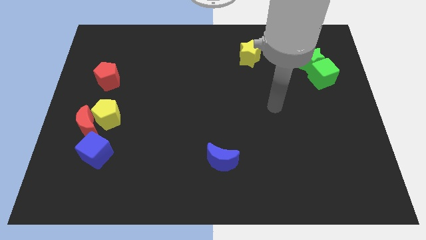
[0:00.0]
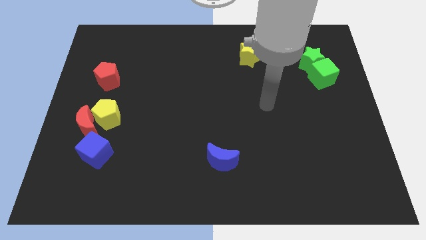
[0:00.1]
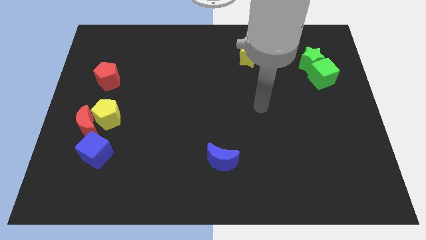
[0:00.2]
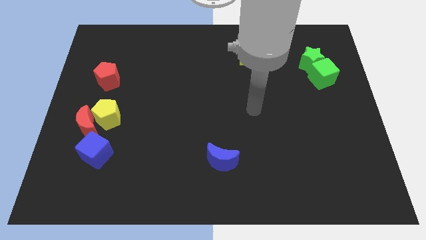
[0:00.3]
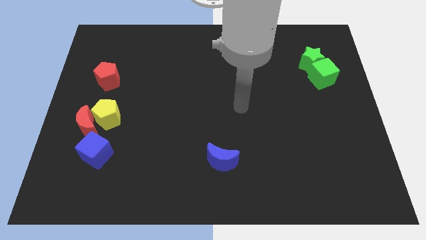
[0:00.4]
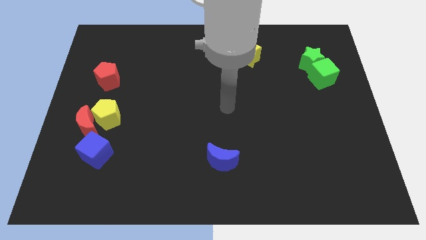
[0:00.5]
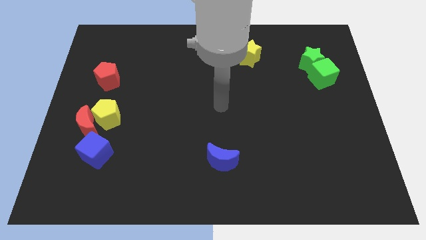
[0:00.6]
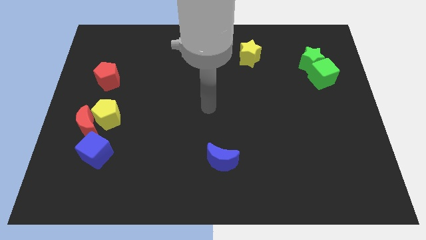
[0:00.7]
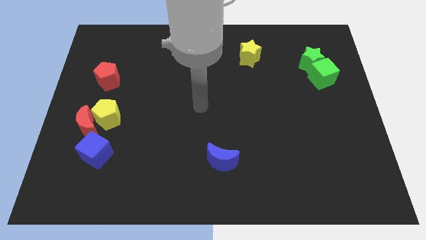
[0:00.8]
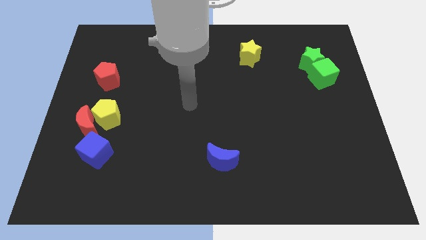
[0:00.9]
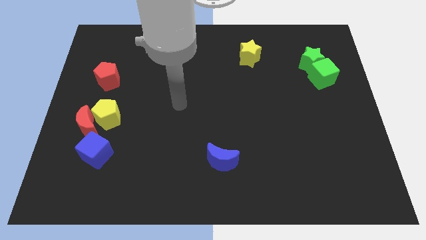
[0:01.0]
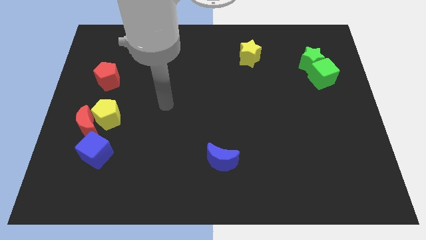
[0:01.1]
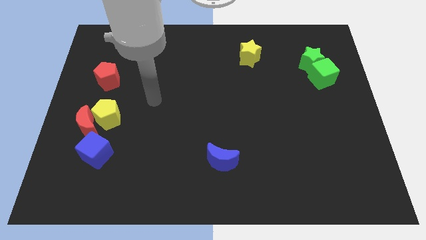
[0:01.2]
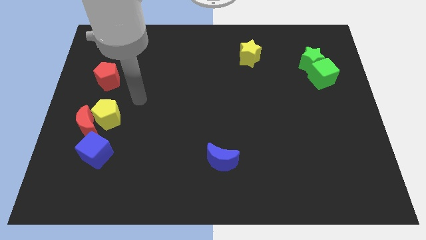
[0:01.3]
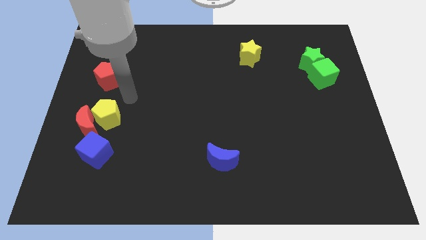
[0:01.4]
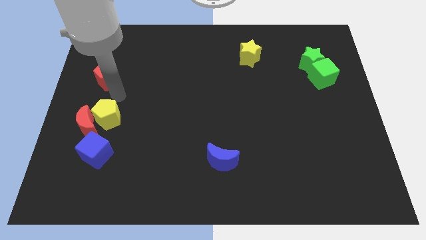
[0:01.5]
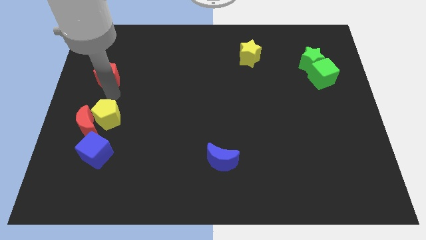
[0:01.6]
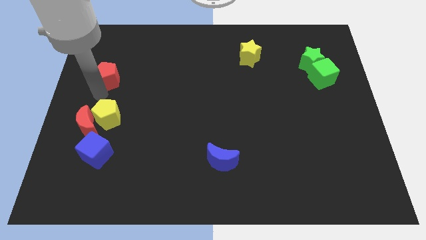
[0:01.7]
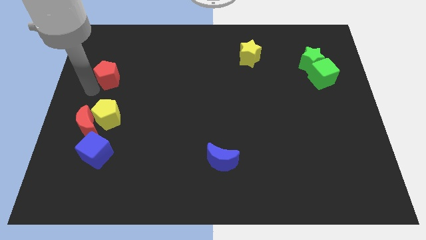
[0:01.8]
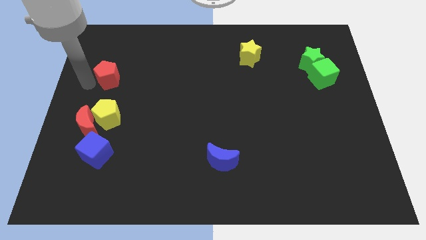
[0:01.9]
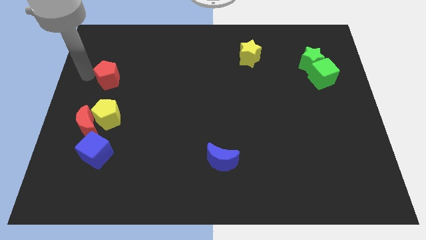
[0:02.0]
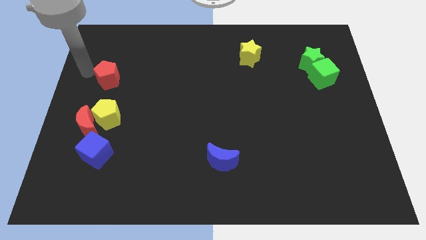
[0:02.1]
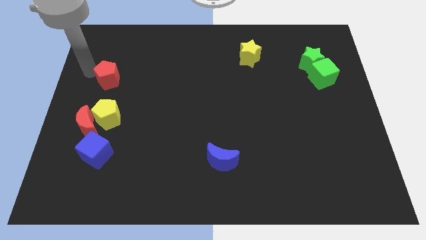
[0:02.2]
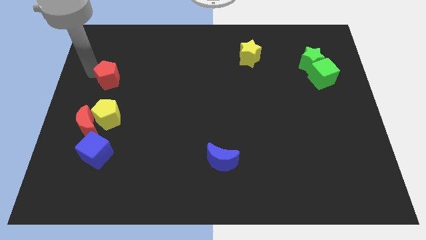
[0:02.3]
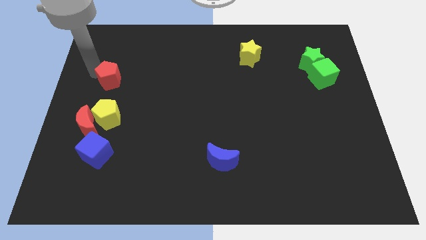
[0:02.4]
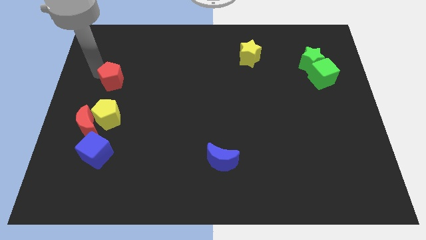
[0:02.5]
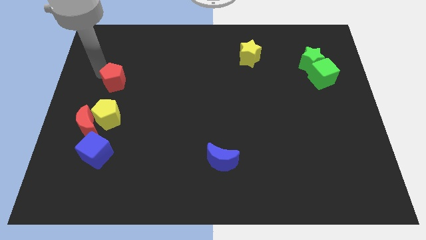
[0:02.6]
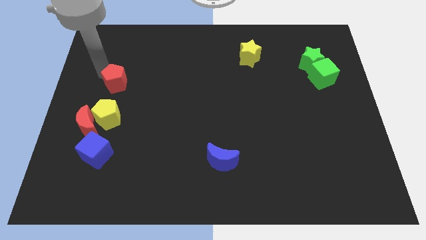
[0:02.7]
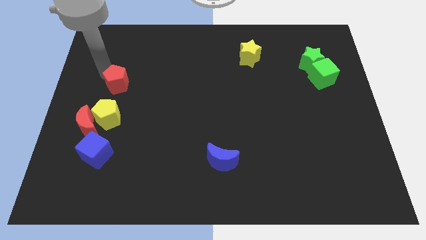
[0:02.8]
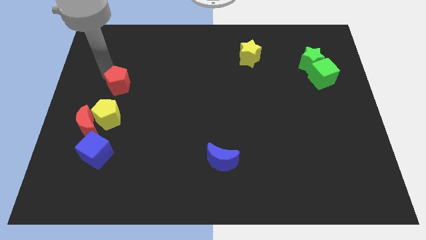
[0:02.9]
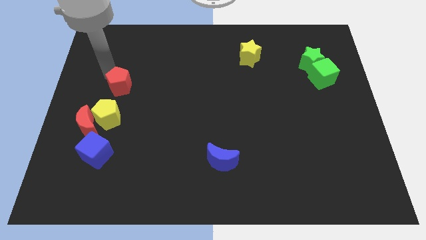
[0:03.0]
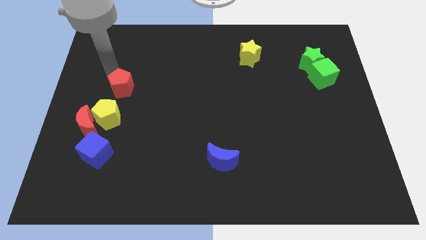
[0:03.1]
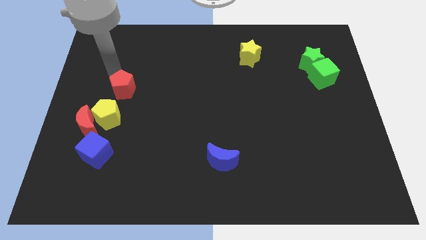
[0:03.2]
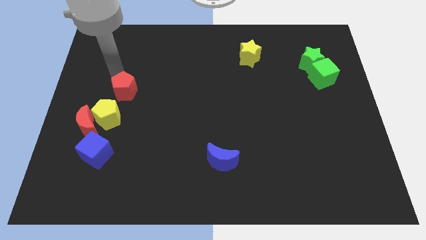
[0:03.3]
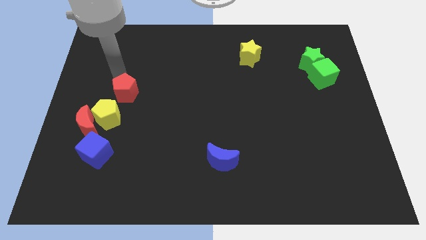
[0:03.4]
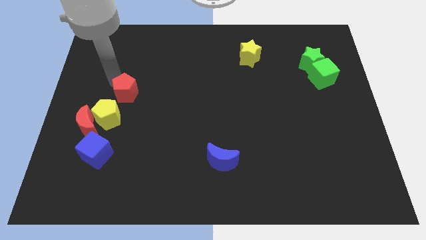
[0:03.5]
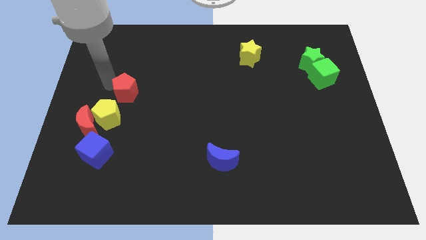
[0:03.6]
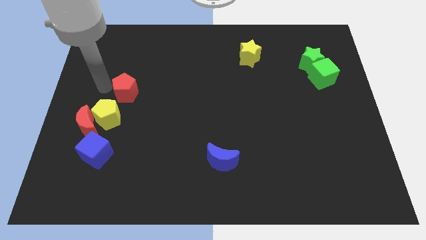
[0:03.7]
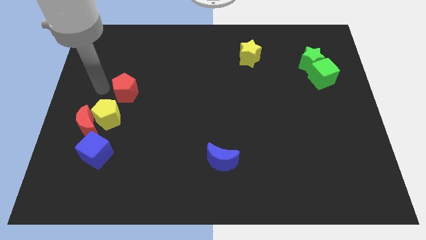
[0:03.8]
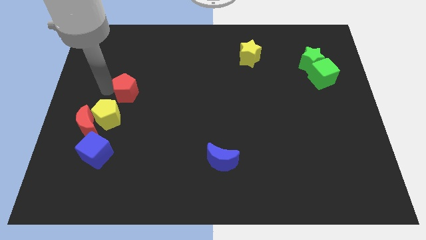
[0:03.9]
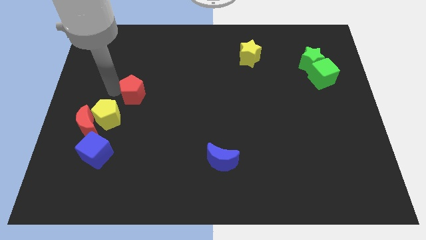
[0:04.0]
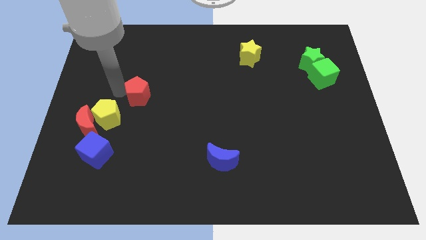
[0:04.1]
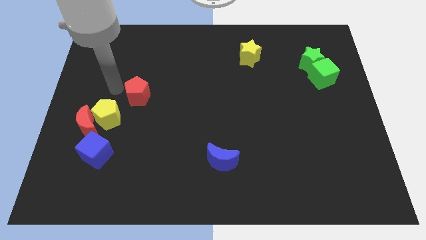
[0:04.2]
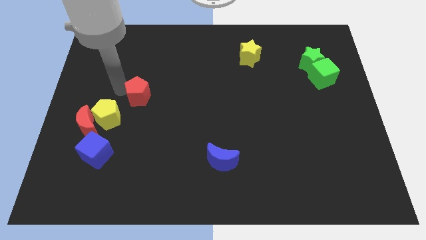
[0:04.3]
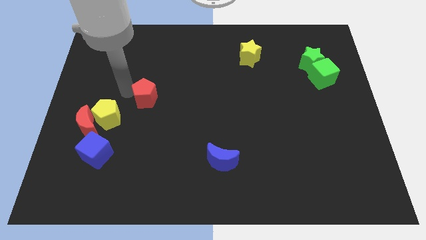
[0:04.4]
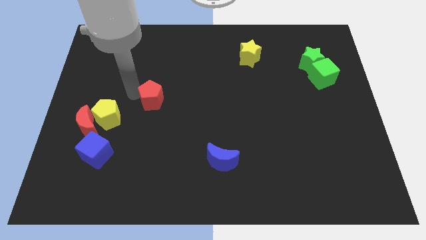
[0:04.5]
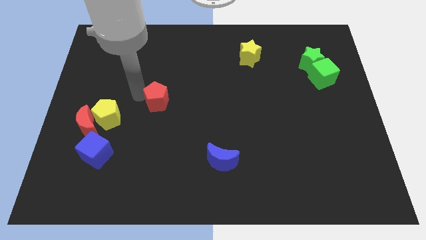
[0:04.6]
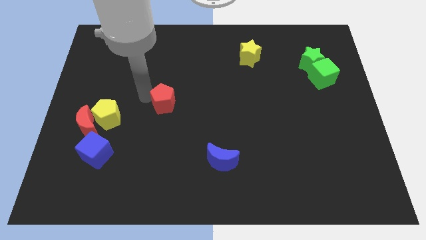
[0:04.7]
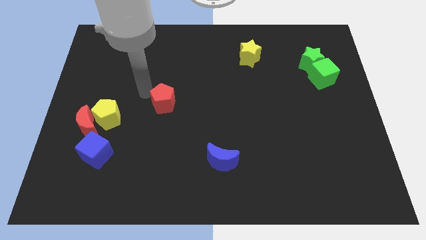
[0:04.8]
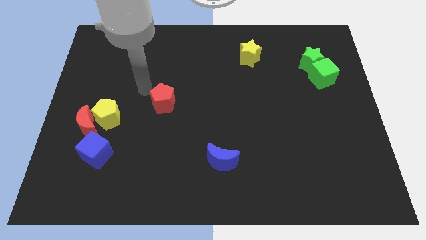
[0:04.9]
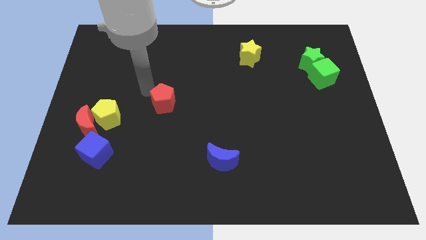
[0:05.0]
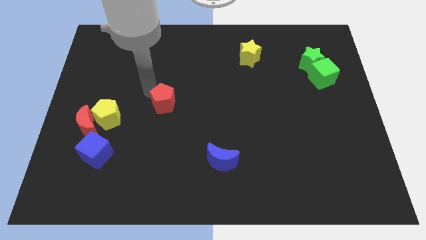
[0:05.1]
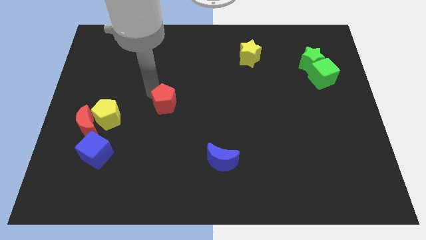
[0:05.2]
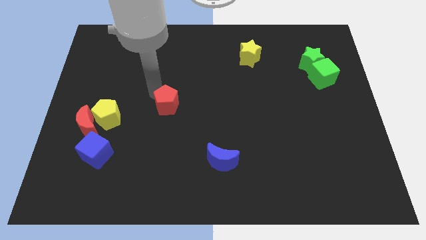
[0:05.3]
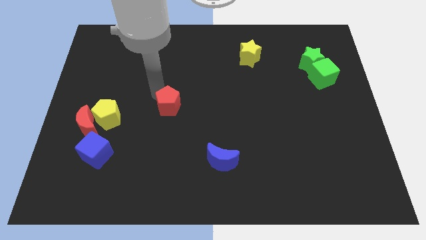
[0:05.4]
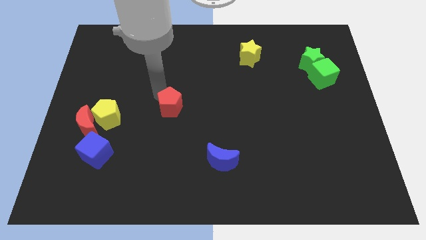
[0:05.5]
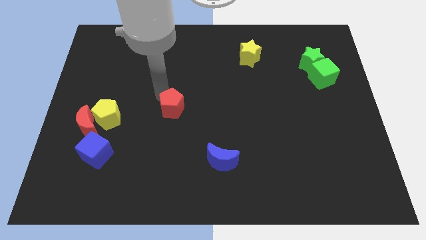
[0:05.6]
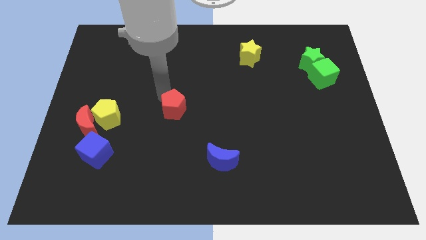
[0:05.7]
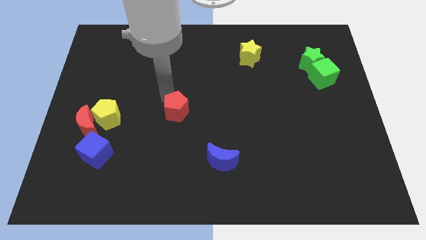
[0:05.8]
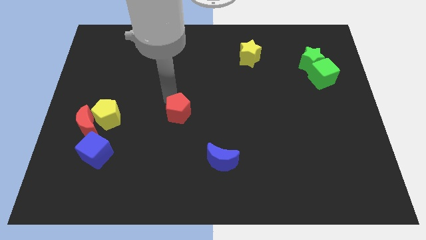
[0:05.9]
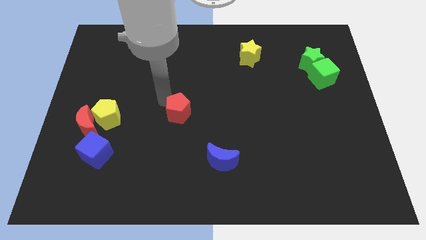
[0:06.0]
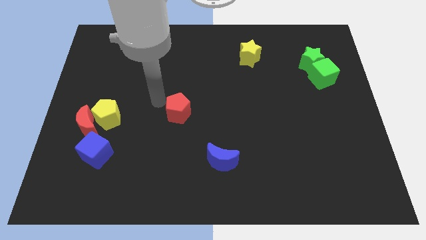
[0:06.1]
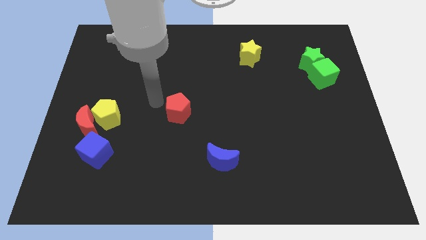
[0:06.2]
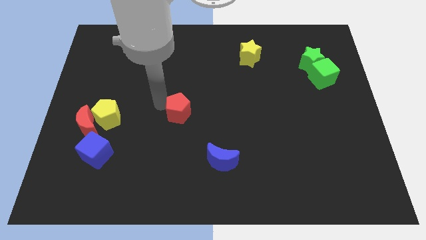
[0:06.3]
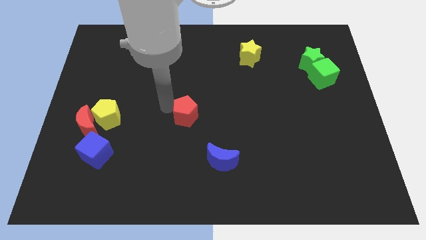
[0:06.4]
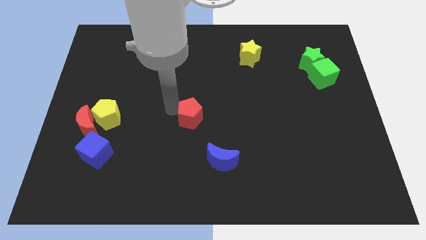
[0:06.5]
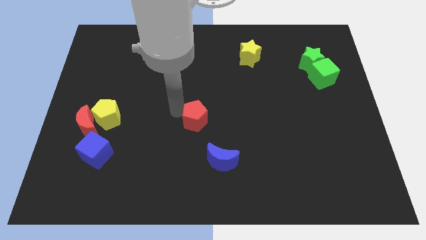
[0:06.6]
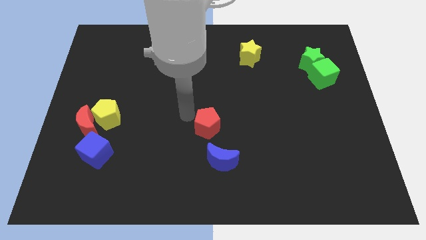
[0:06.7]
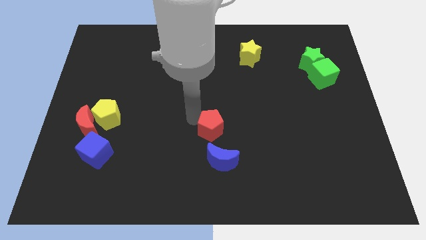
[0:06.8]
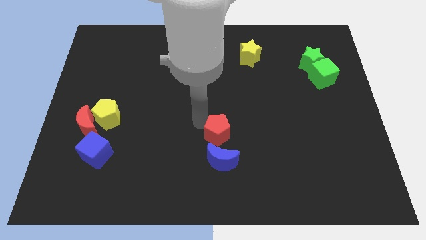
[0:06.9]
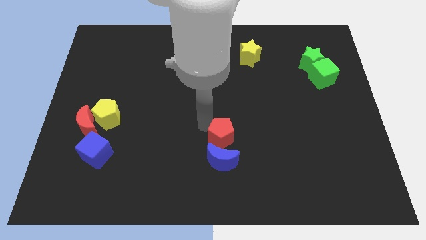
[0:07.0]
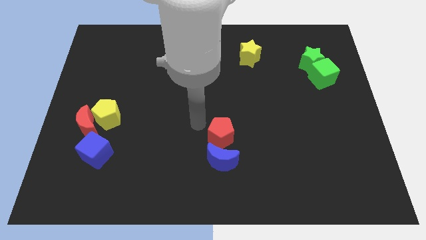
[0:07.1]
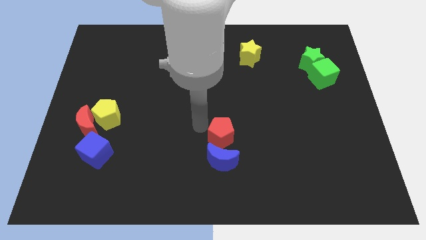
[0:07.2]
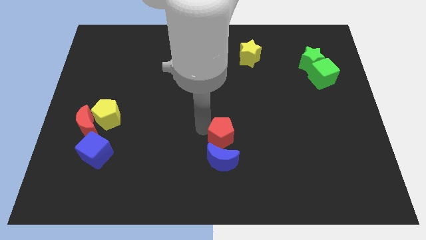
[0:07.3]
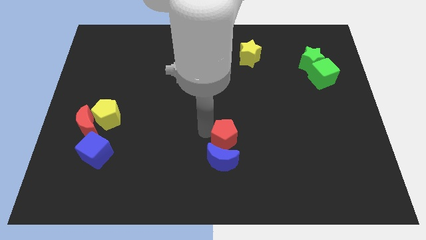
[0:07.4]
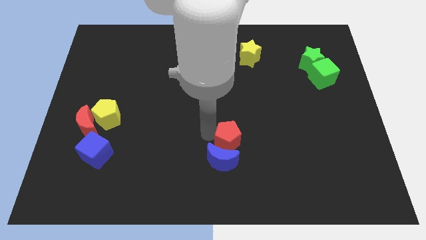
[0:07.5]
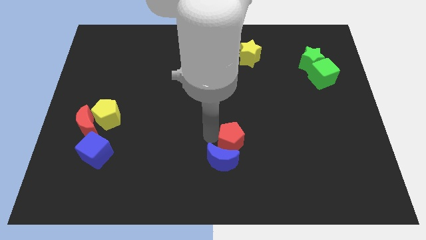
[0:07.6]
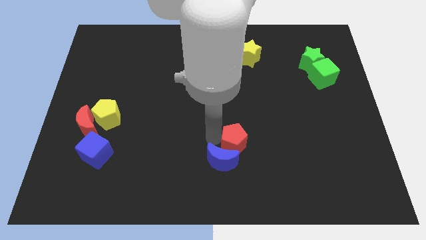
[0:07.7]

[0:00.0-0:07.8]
put the red pentagon to the right of the blue moon
